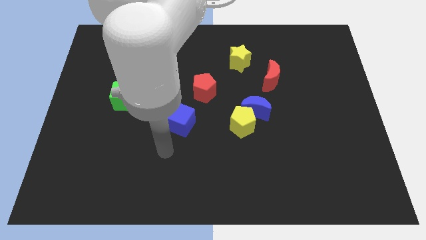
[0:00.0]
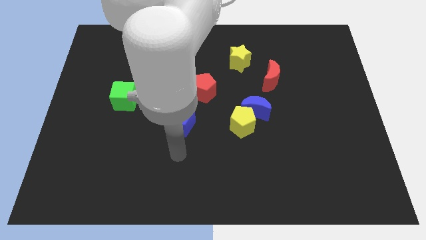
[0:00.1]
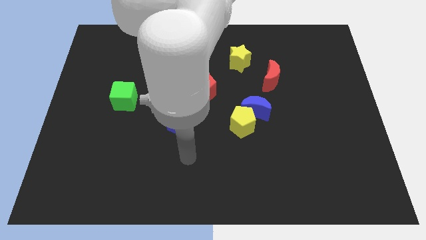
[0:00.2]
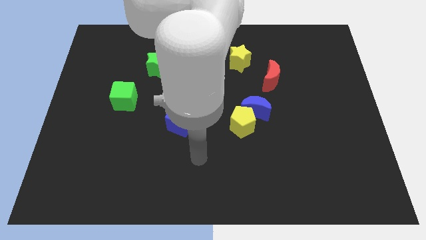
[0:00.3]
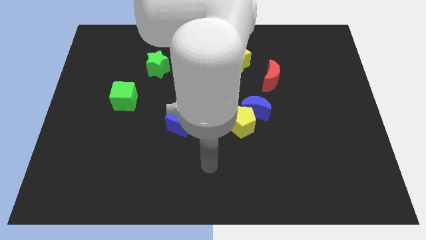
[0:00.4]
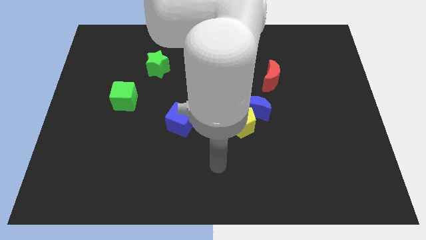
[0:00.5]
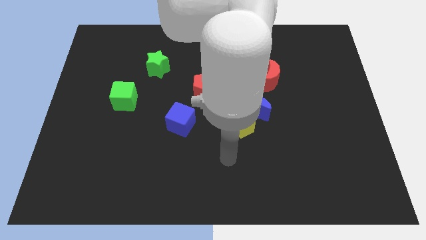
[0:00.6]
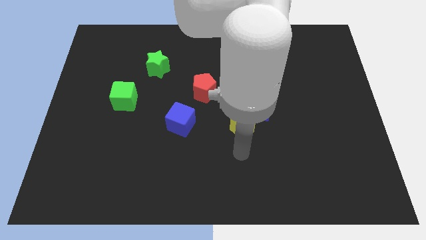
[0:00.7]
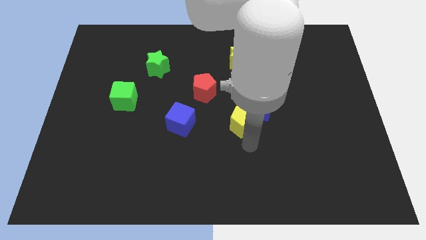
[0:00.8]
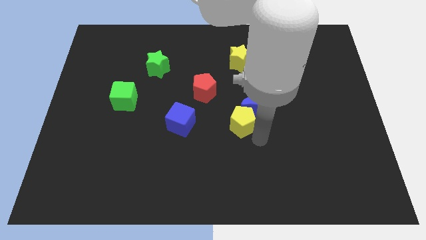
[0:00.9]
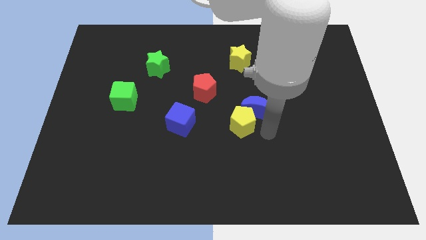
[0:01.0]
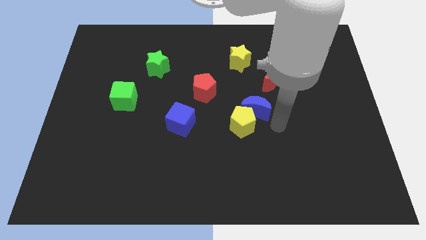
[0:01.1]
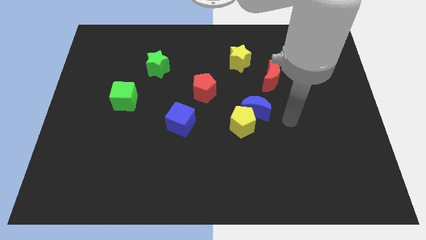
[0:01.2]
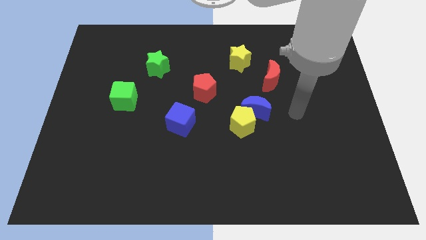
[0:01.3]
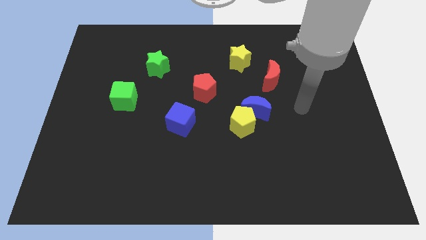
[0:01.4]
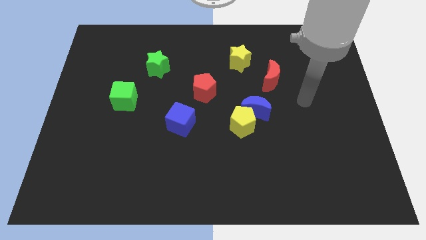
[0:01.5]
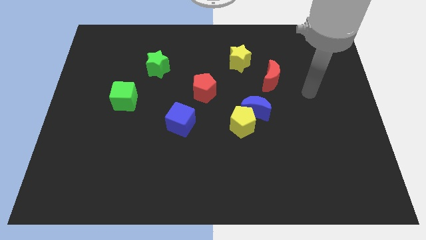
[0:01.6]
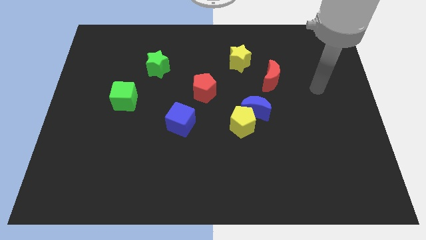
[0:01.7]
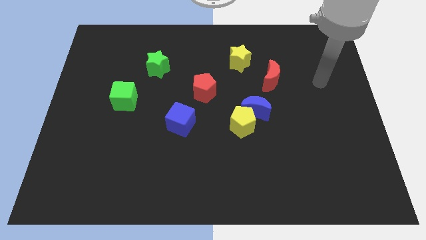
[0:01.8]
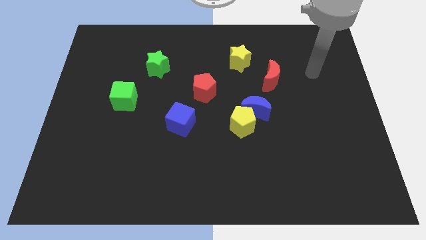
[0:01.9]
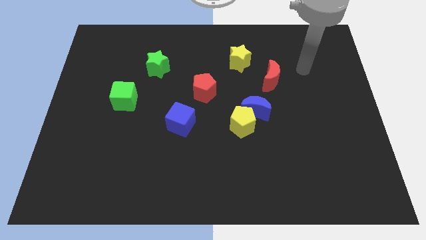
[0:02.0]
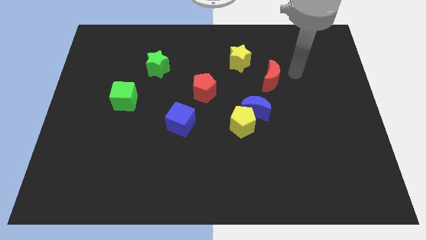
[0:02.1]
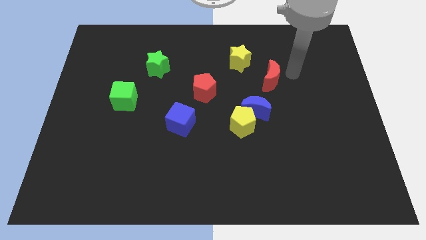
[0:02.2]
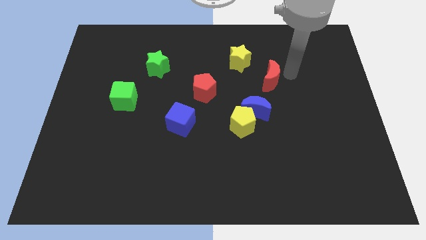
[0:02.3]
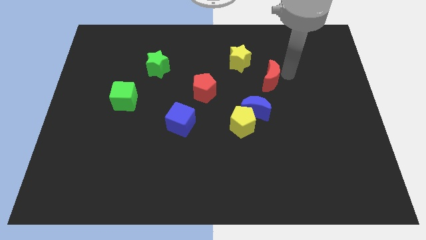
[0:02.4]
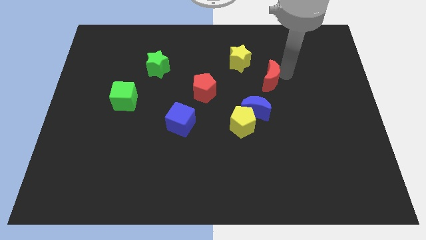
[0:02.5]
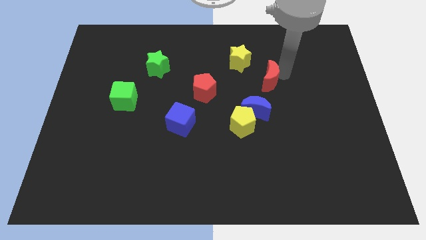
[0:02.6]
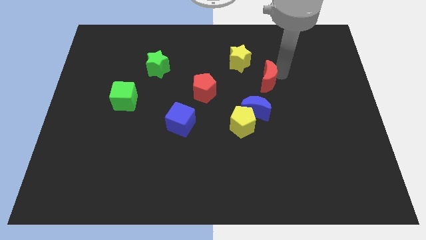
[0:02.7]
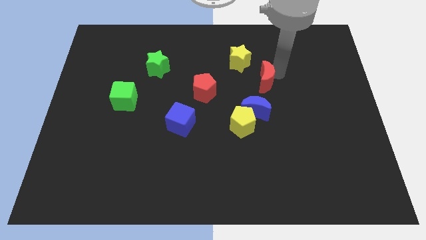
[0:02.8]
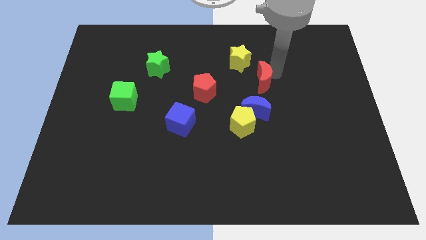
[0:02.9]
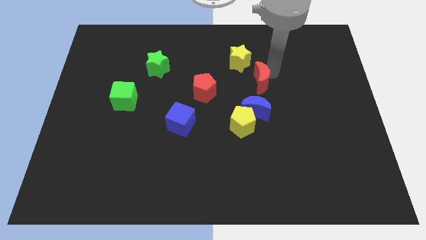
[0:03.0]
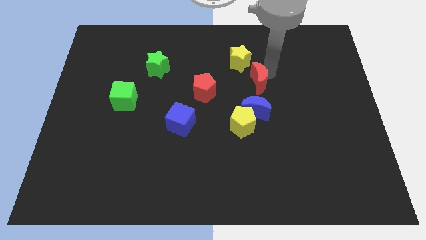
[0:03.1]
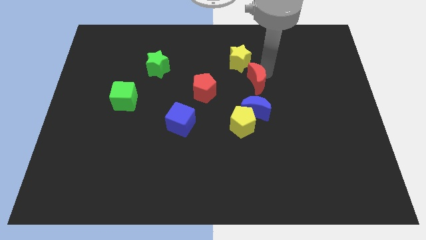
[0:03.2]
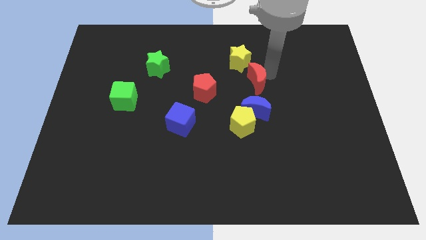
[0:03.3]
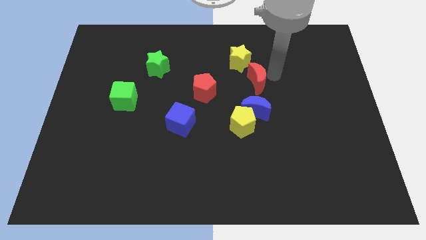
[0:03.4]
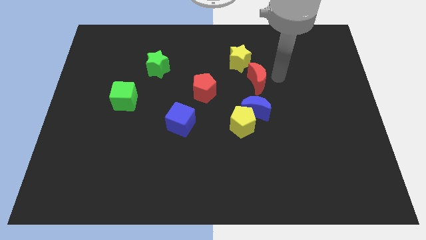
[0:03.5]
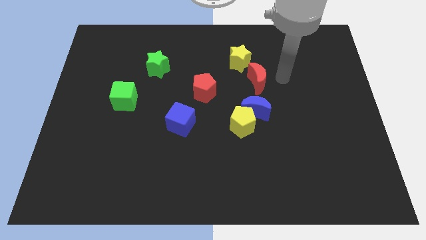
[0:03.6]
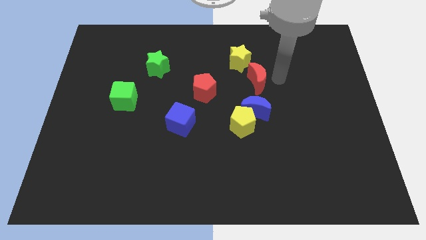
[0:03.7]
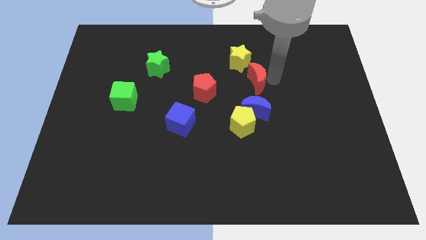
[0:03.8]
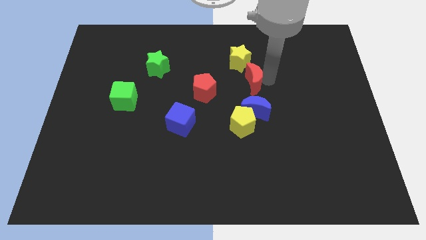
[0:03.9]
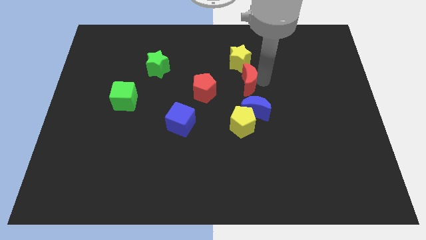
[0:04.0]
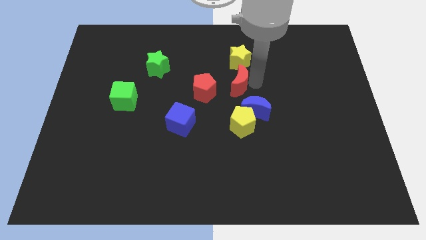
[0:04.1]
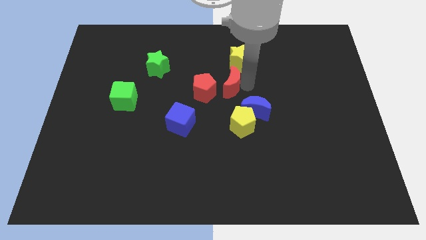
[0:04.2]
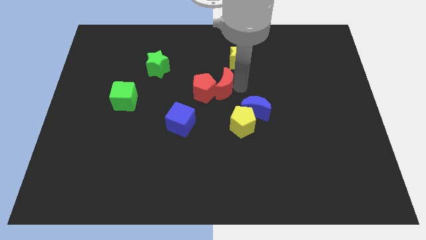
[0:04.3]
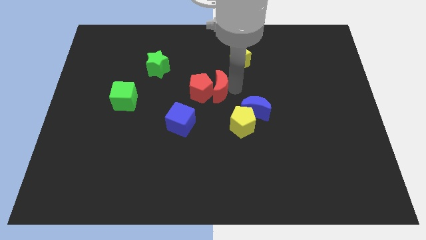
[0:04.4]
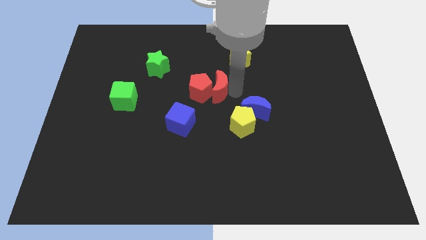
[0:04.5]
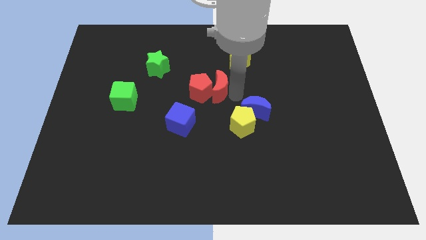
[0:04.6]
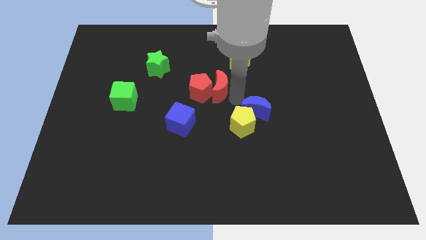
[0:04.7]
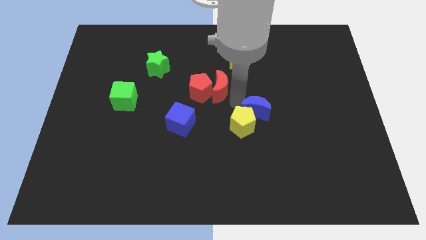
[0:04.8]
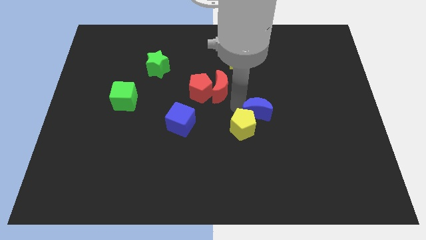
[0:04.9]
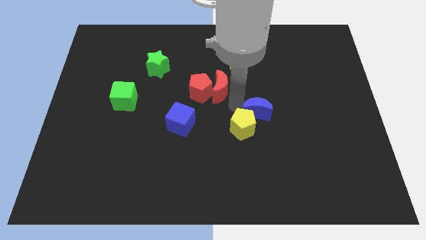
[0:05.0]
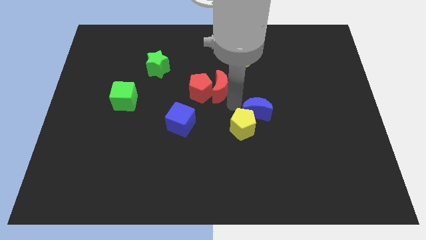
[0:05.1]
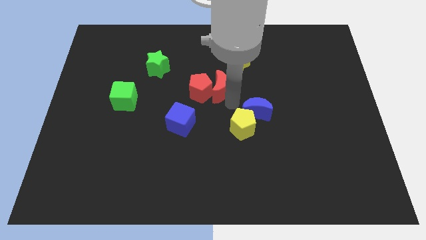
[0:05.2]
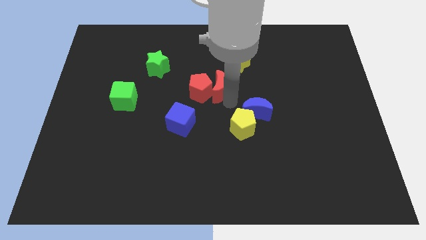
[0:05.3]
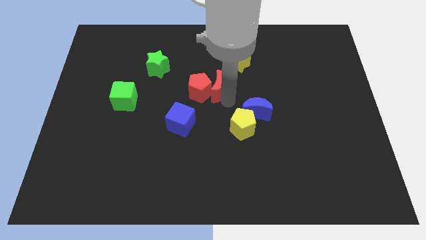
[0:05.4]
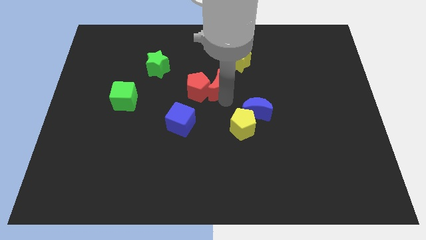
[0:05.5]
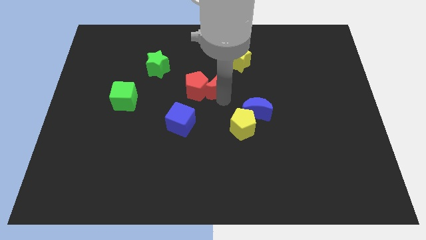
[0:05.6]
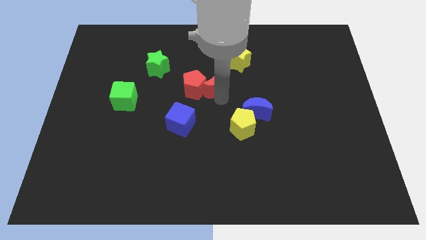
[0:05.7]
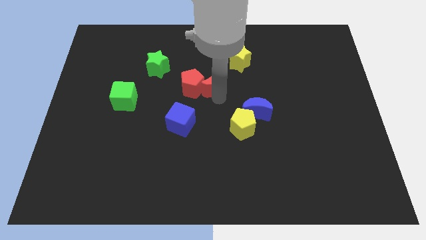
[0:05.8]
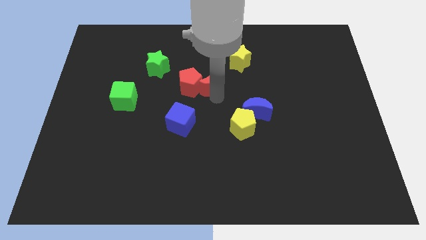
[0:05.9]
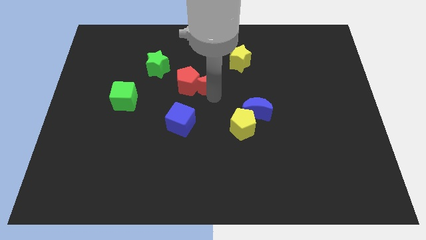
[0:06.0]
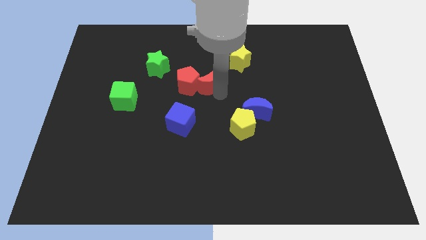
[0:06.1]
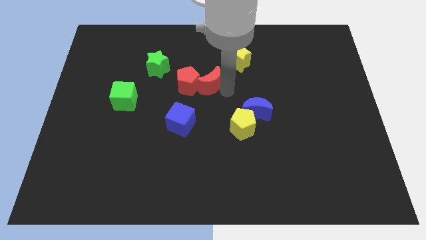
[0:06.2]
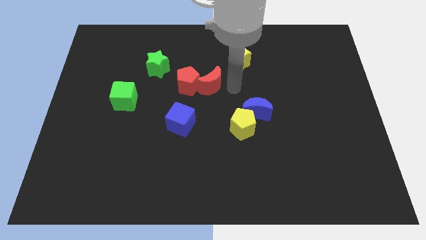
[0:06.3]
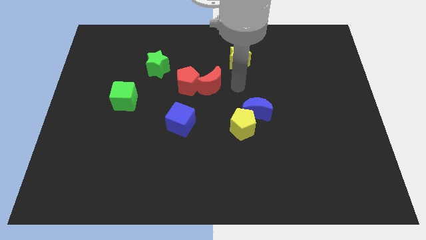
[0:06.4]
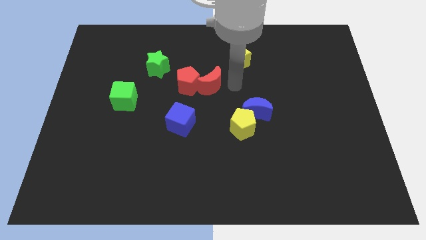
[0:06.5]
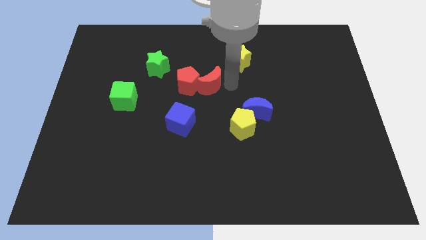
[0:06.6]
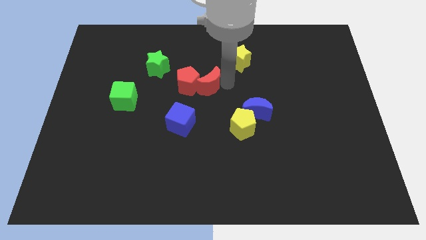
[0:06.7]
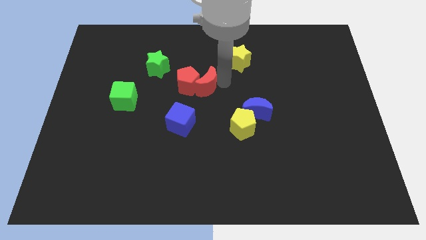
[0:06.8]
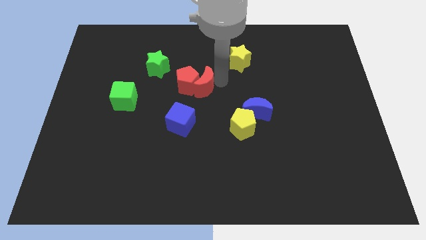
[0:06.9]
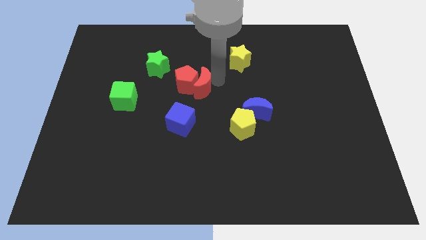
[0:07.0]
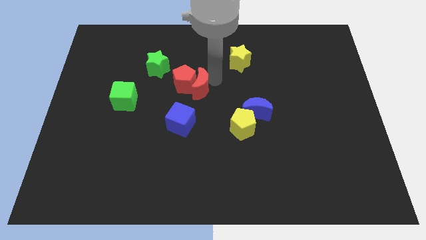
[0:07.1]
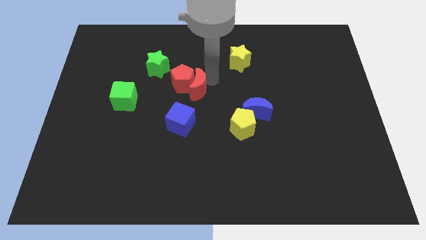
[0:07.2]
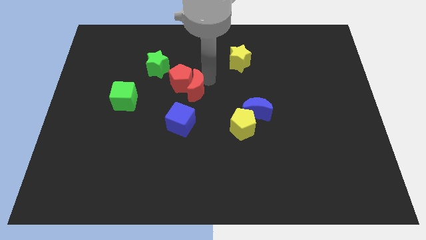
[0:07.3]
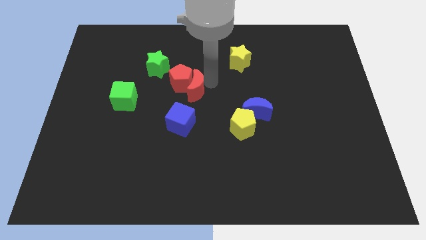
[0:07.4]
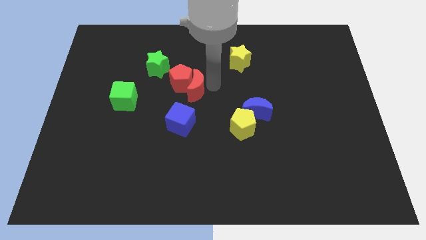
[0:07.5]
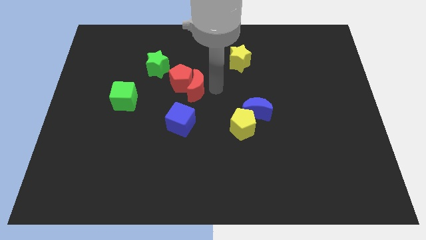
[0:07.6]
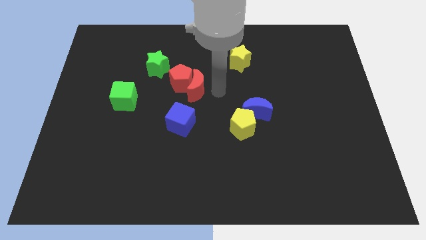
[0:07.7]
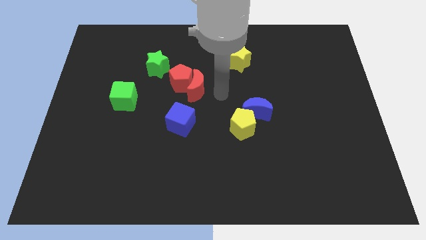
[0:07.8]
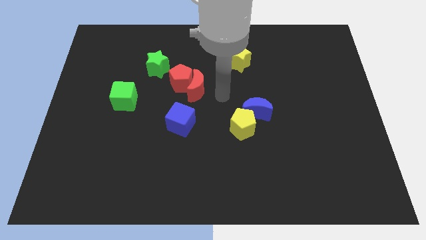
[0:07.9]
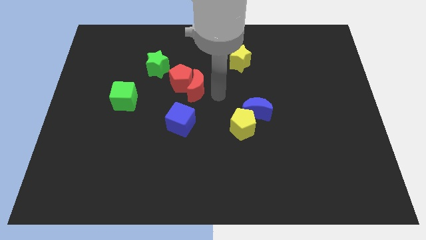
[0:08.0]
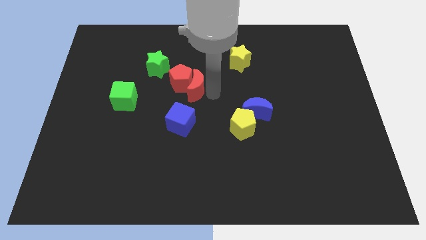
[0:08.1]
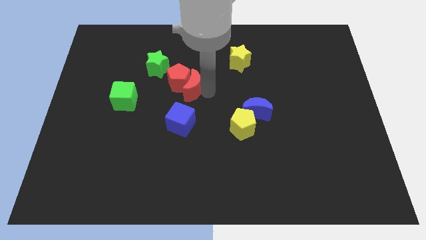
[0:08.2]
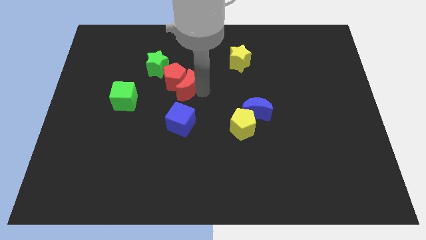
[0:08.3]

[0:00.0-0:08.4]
push the red moon to the left
